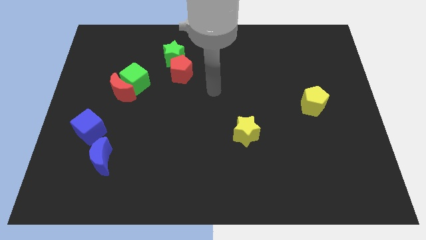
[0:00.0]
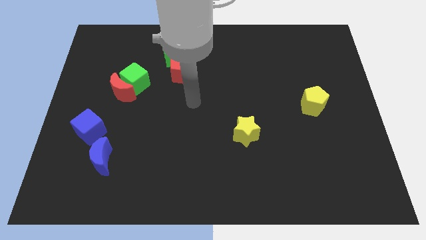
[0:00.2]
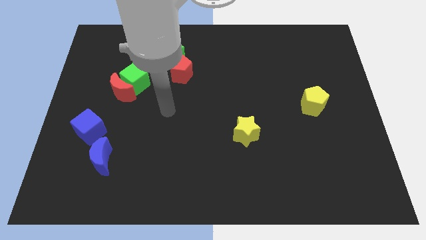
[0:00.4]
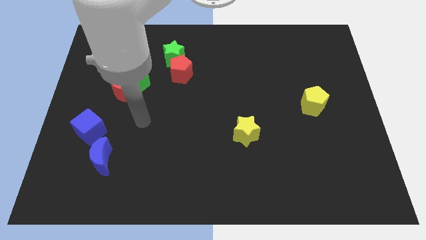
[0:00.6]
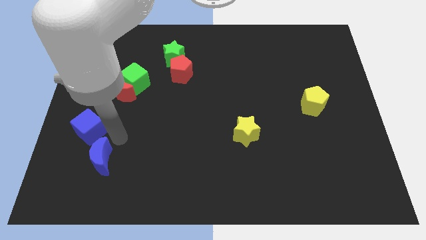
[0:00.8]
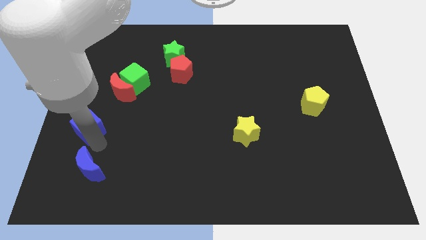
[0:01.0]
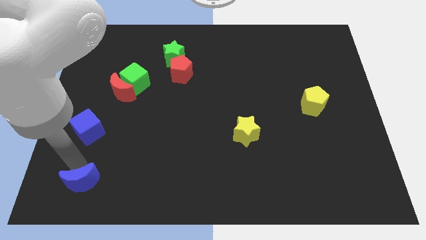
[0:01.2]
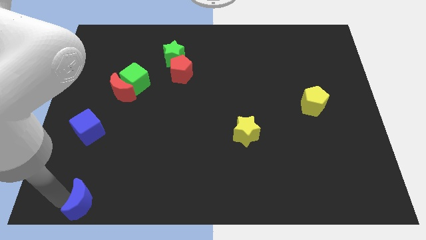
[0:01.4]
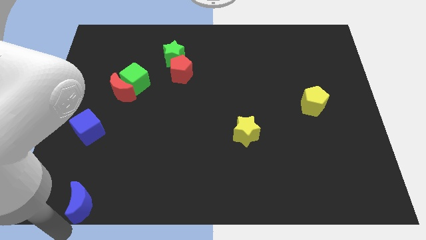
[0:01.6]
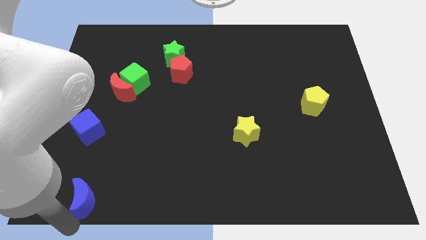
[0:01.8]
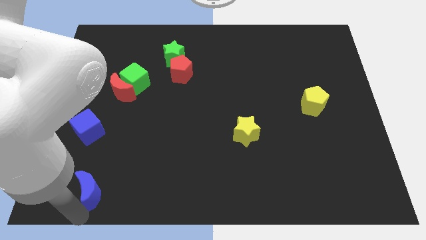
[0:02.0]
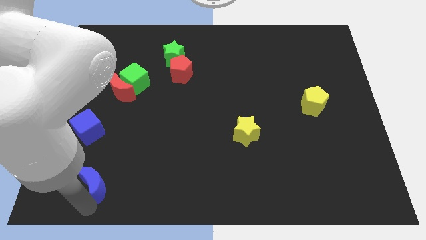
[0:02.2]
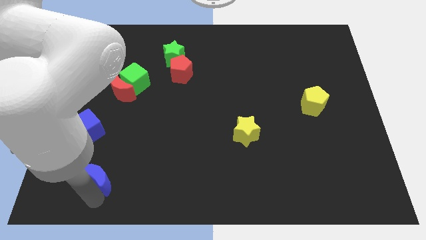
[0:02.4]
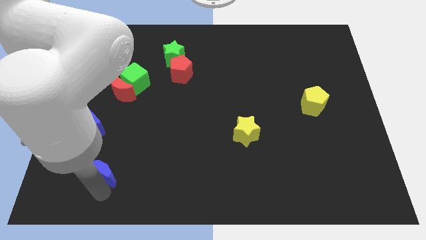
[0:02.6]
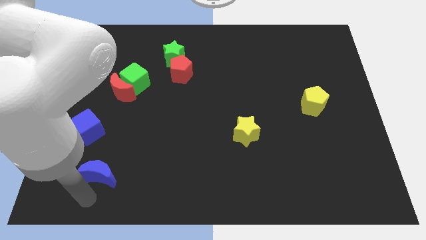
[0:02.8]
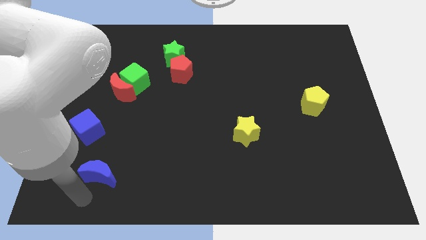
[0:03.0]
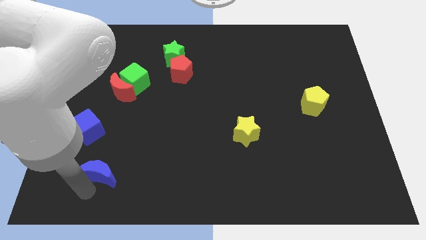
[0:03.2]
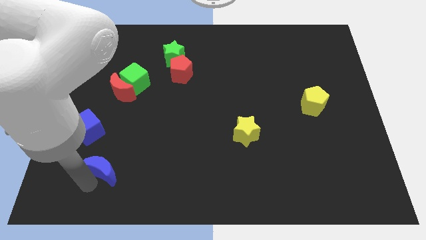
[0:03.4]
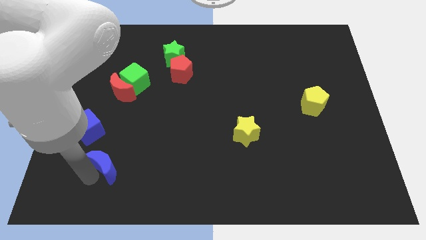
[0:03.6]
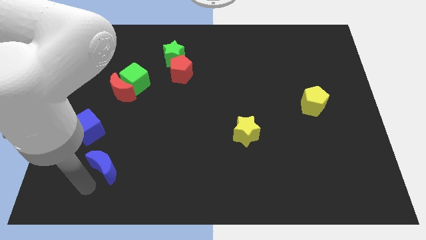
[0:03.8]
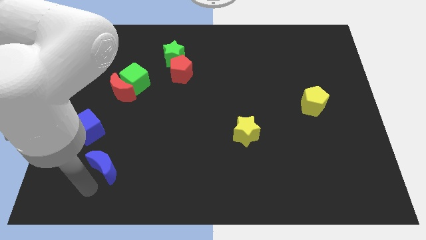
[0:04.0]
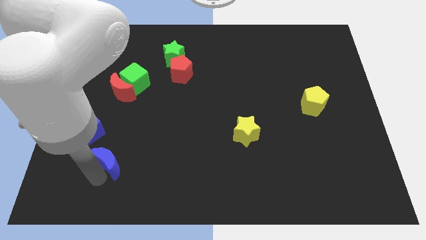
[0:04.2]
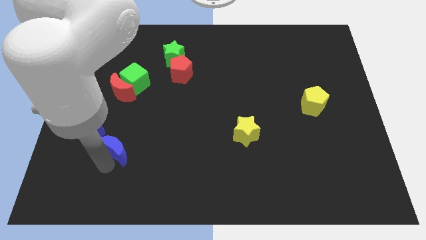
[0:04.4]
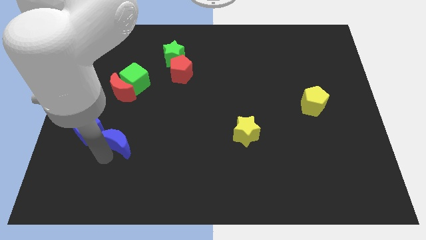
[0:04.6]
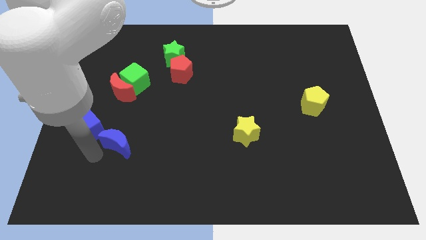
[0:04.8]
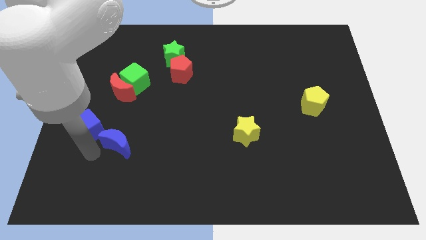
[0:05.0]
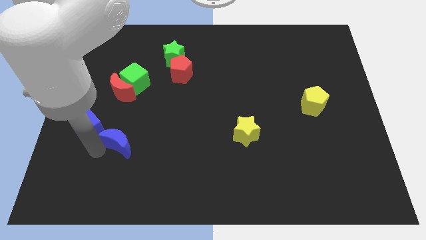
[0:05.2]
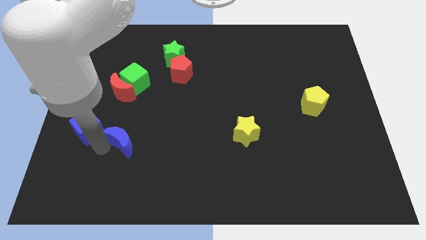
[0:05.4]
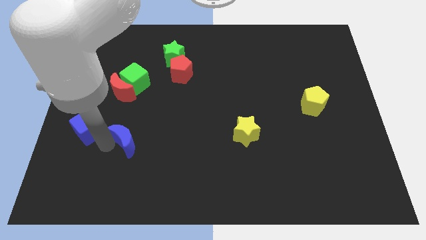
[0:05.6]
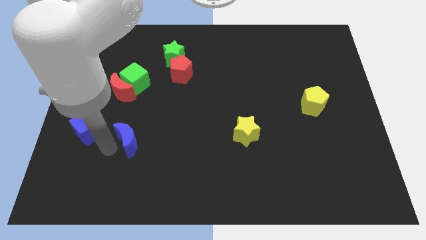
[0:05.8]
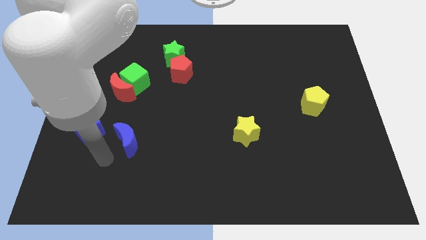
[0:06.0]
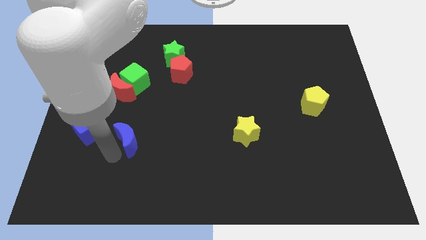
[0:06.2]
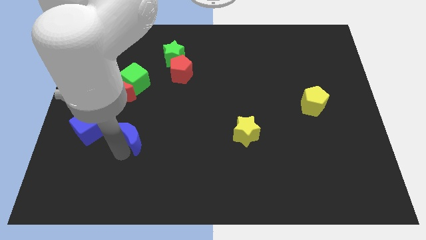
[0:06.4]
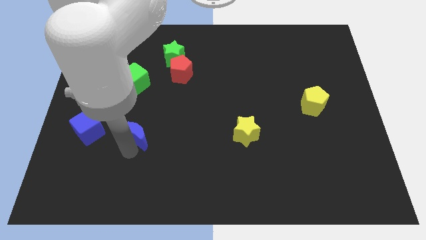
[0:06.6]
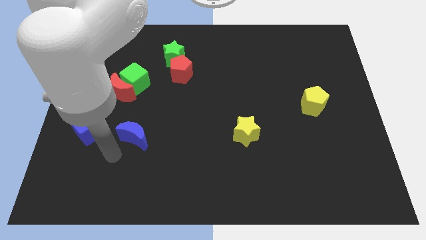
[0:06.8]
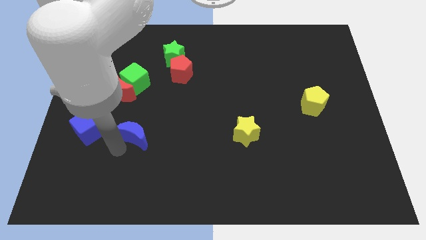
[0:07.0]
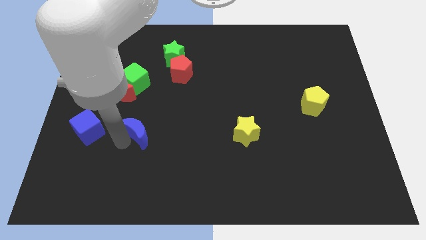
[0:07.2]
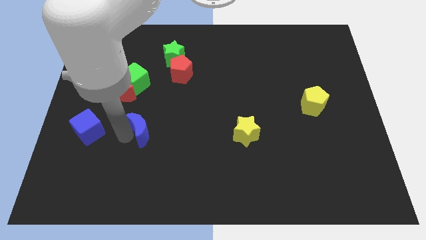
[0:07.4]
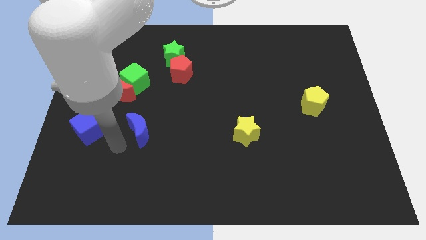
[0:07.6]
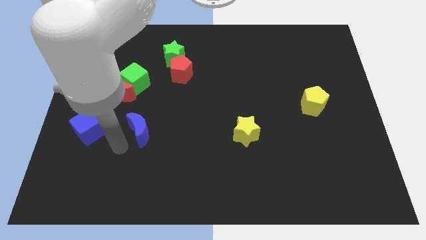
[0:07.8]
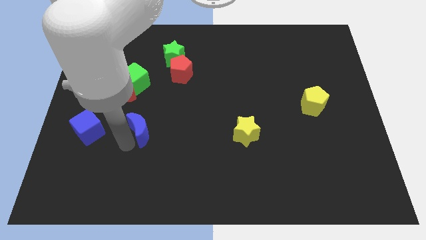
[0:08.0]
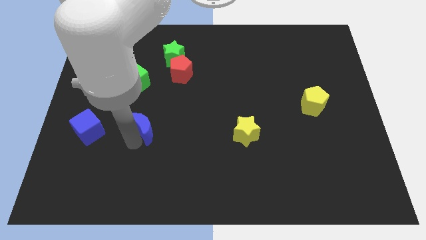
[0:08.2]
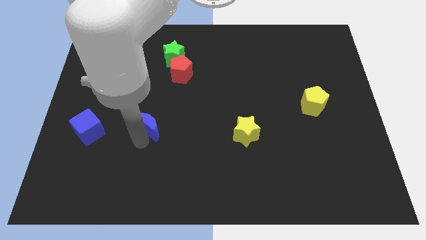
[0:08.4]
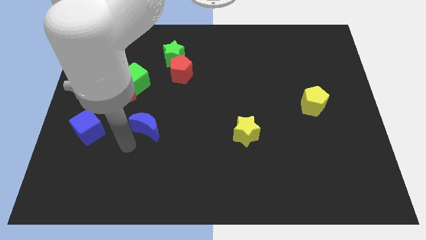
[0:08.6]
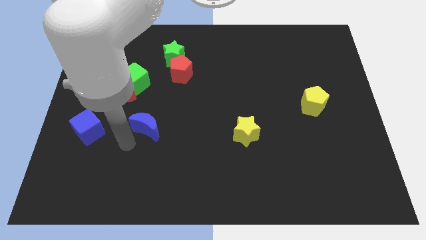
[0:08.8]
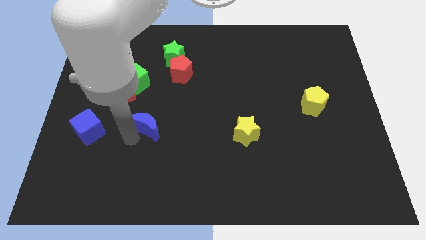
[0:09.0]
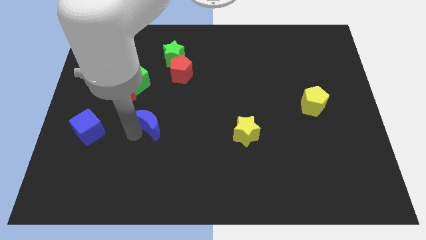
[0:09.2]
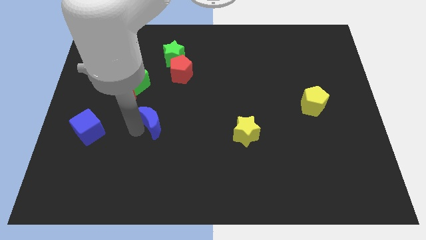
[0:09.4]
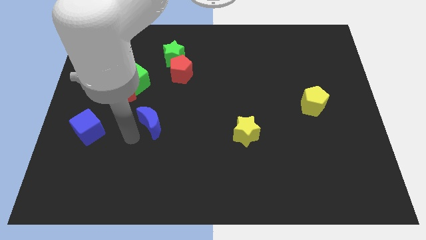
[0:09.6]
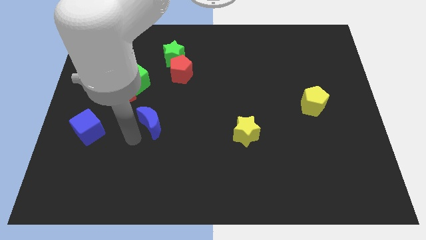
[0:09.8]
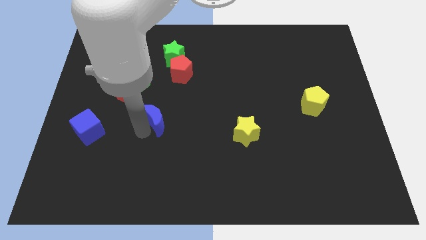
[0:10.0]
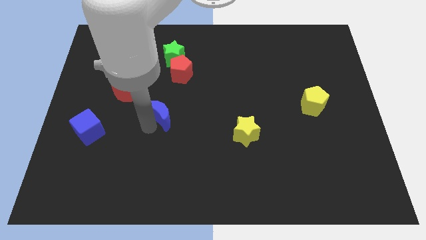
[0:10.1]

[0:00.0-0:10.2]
put the blue moon to the bottom side of the red pentagon

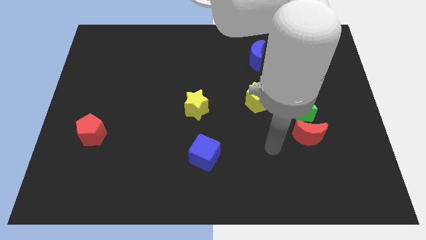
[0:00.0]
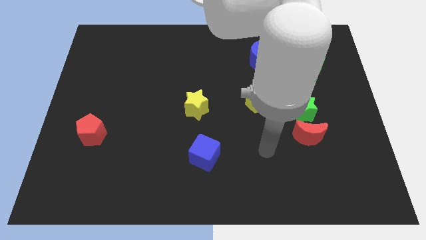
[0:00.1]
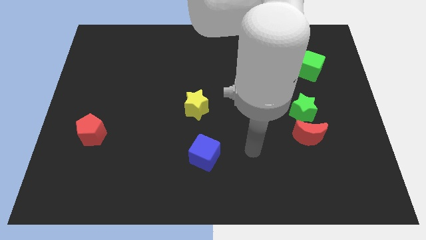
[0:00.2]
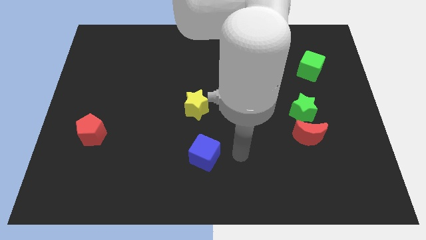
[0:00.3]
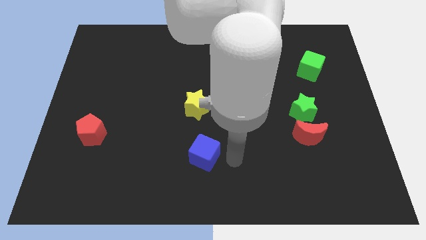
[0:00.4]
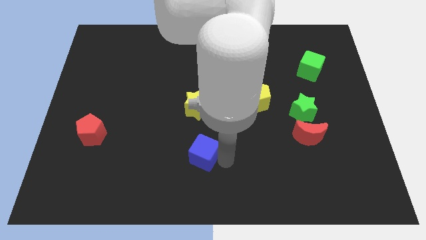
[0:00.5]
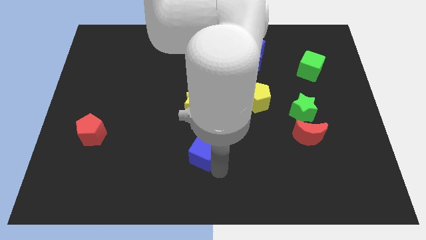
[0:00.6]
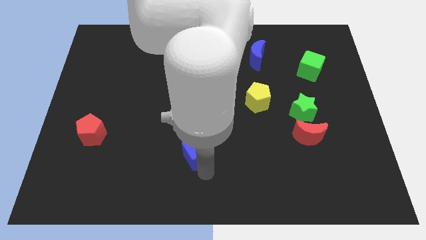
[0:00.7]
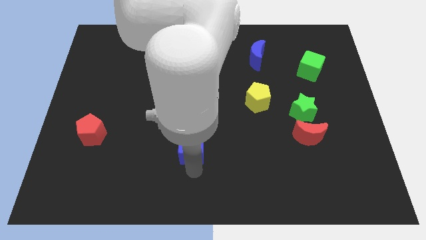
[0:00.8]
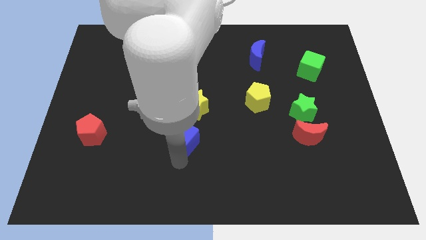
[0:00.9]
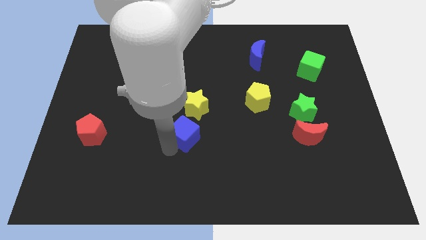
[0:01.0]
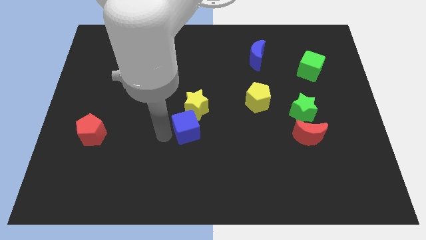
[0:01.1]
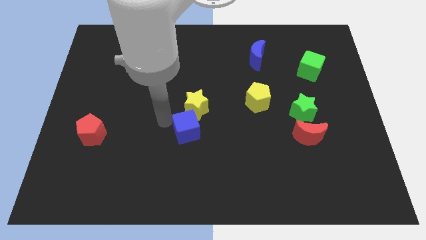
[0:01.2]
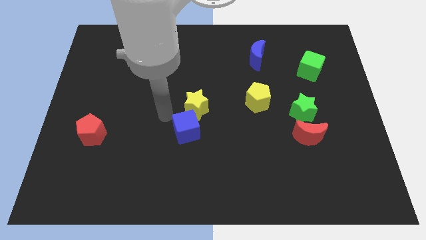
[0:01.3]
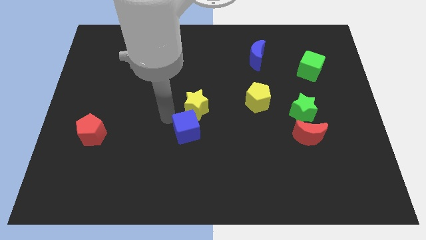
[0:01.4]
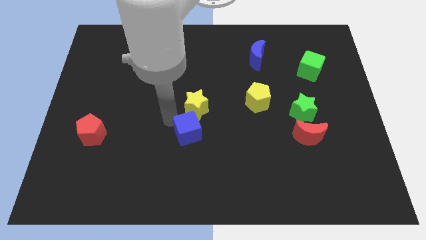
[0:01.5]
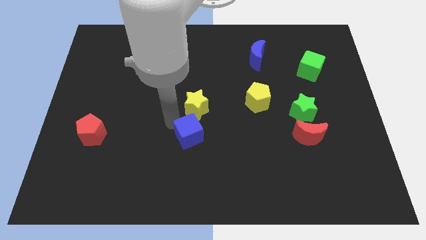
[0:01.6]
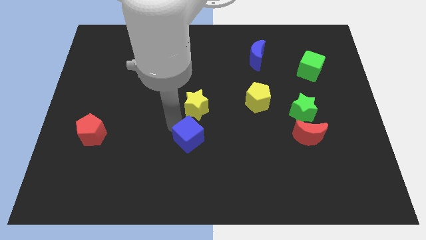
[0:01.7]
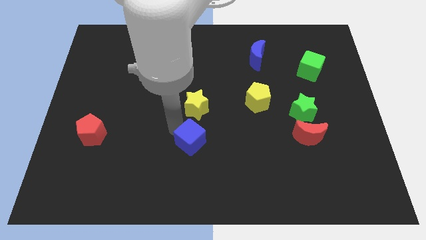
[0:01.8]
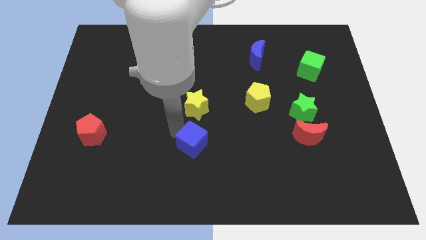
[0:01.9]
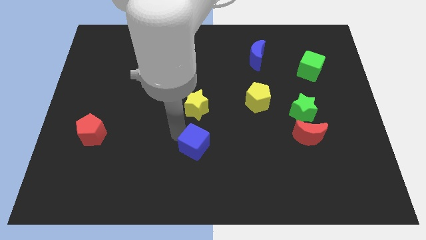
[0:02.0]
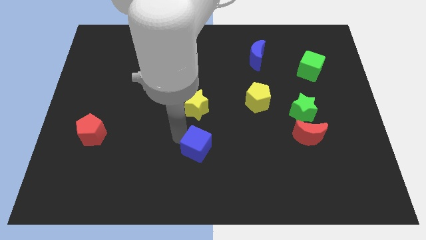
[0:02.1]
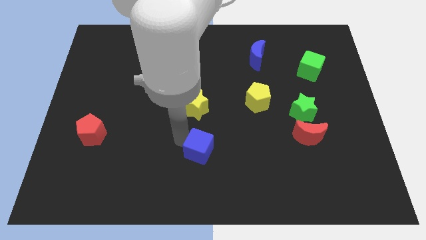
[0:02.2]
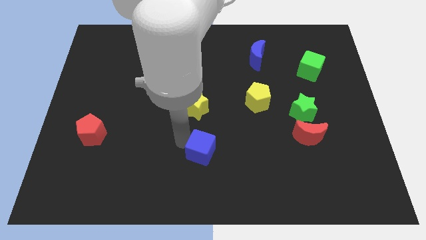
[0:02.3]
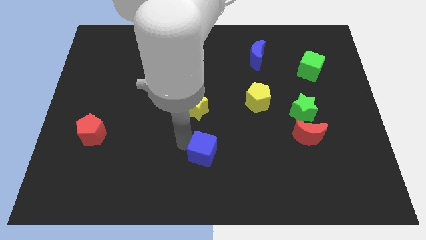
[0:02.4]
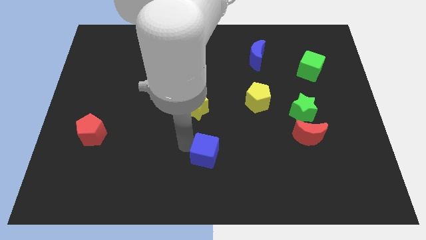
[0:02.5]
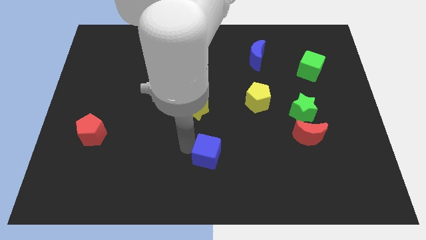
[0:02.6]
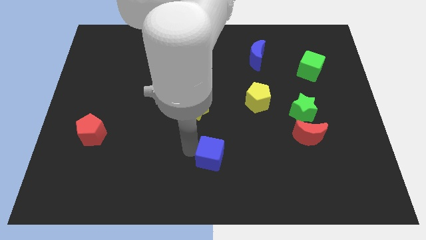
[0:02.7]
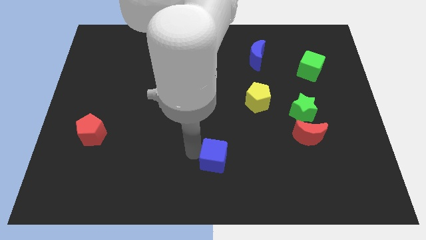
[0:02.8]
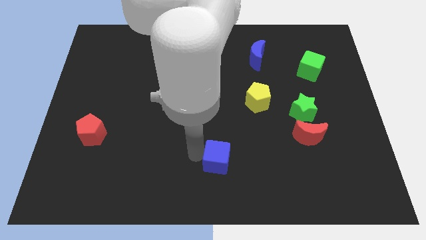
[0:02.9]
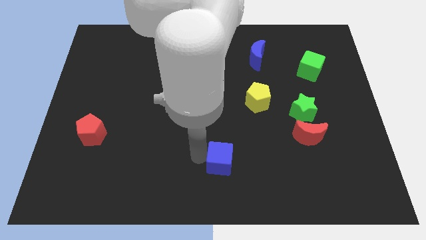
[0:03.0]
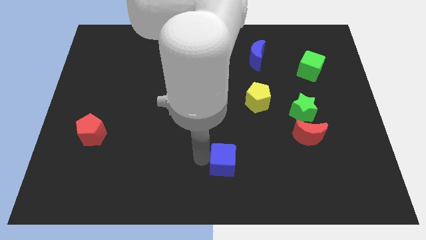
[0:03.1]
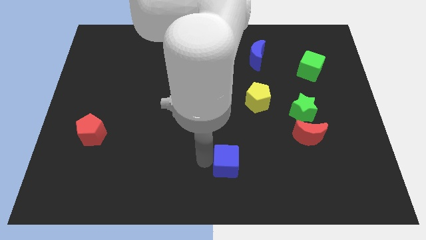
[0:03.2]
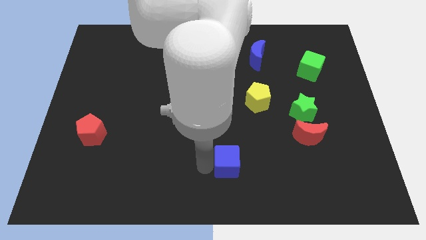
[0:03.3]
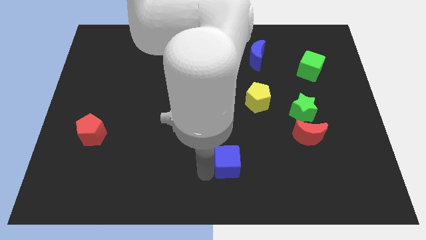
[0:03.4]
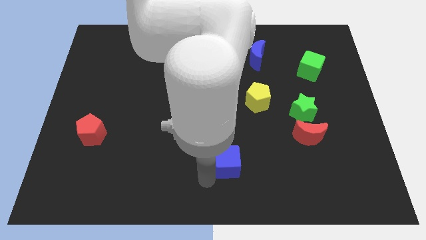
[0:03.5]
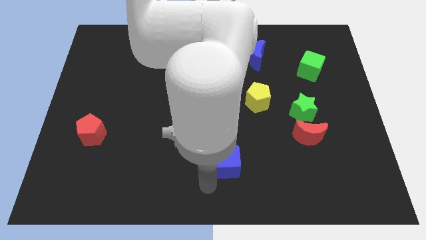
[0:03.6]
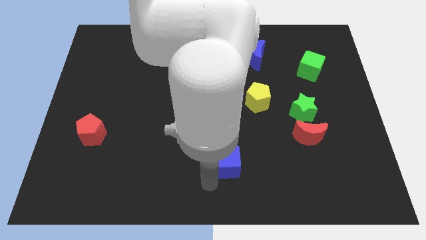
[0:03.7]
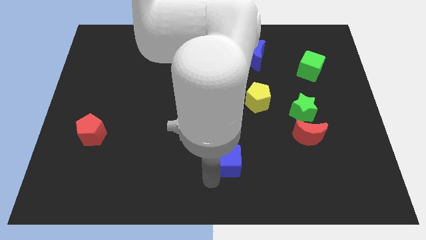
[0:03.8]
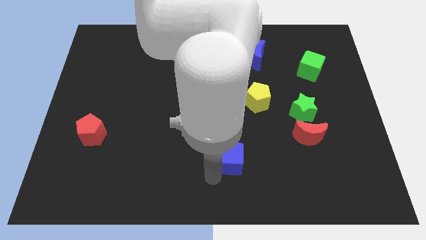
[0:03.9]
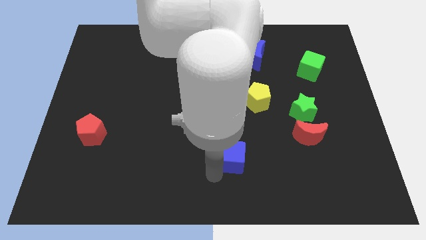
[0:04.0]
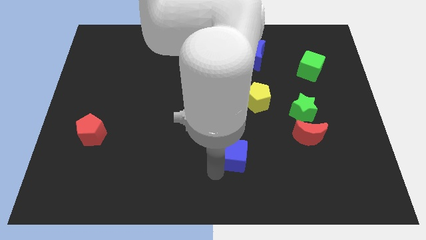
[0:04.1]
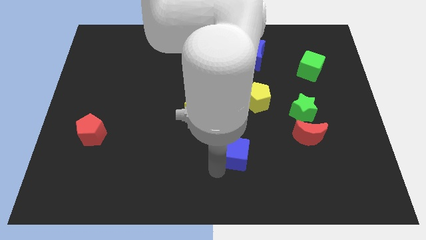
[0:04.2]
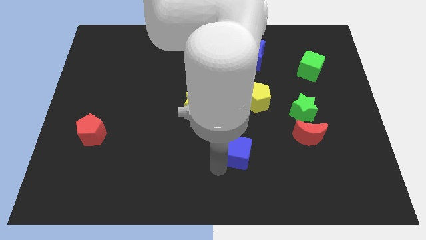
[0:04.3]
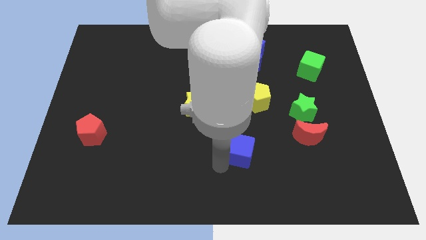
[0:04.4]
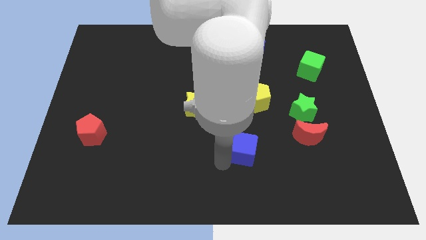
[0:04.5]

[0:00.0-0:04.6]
put the blue cube below the yellow pentagon
